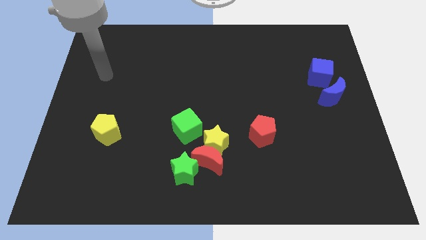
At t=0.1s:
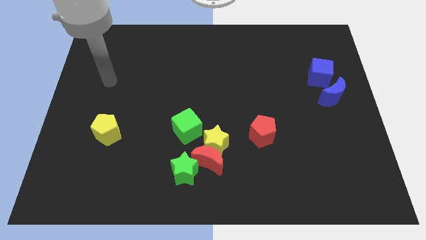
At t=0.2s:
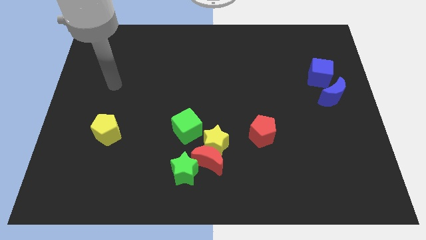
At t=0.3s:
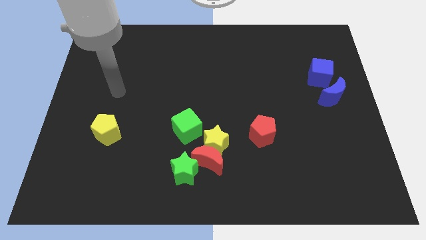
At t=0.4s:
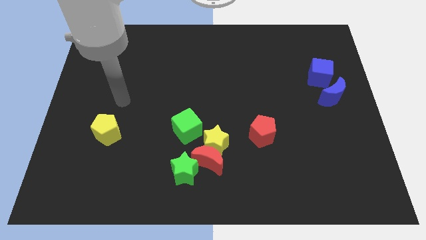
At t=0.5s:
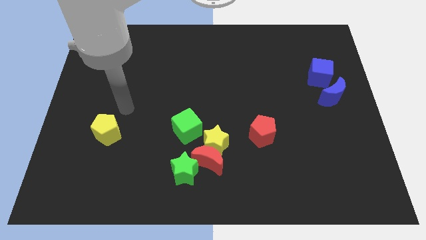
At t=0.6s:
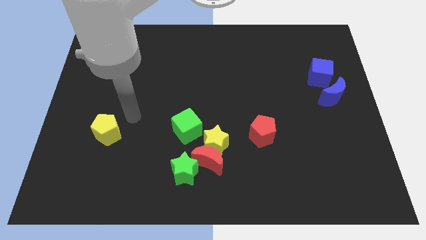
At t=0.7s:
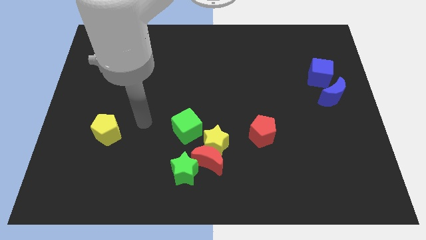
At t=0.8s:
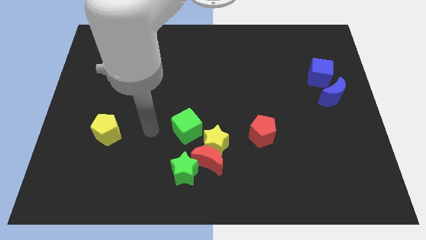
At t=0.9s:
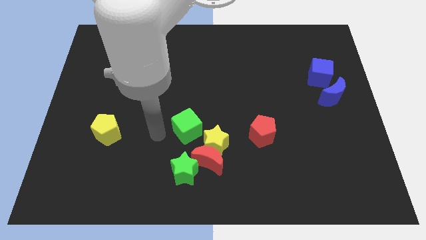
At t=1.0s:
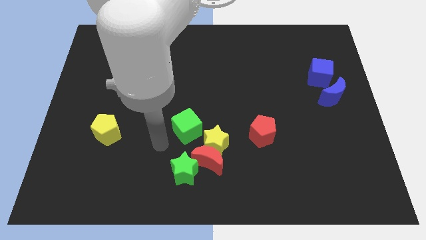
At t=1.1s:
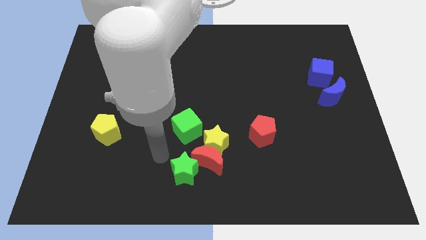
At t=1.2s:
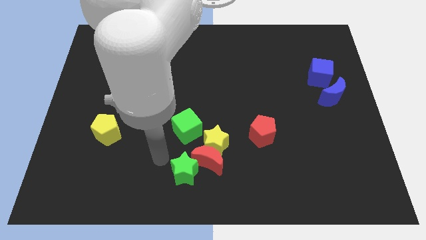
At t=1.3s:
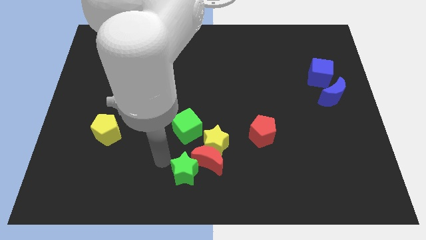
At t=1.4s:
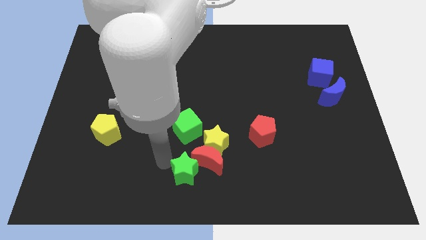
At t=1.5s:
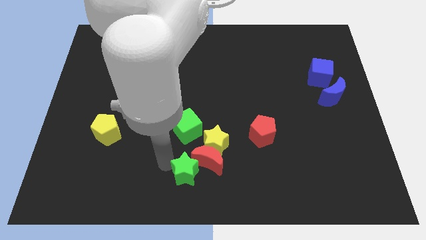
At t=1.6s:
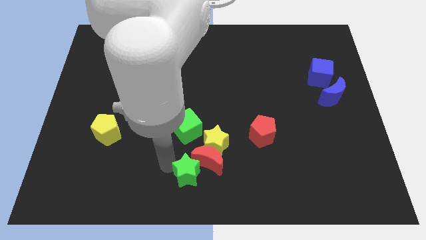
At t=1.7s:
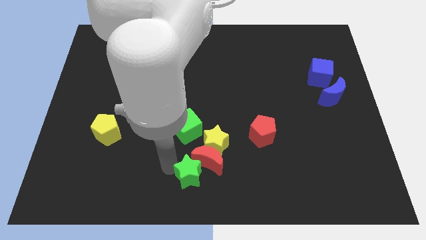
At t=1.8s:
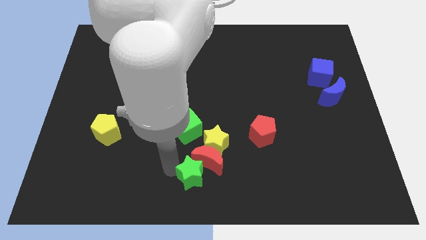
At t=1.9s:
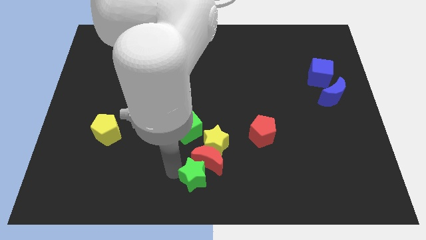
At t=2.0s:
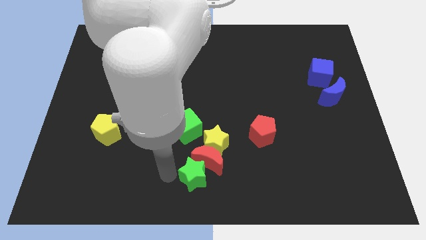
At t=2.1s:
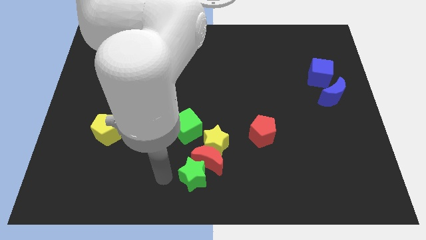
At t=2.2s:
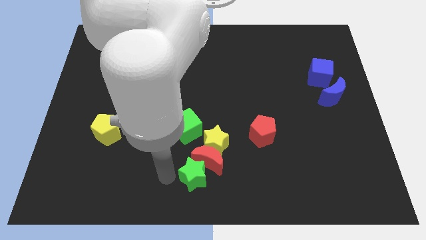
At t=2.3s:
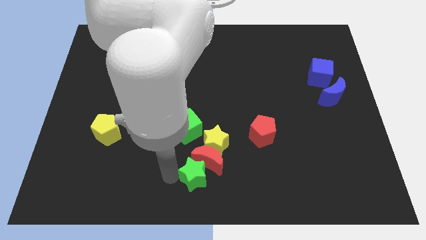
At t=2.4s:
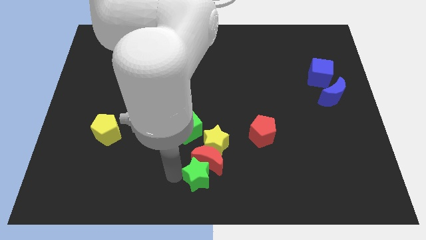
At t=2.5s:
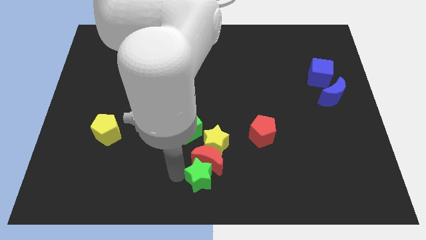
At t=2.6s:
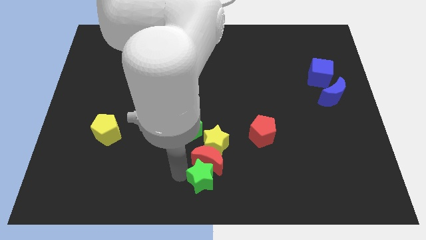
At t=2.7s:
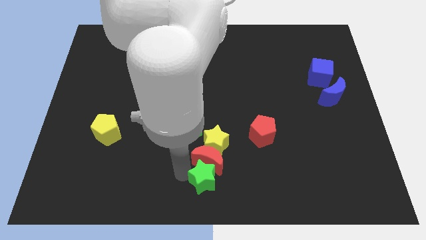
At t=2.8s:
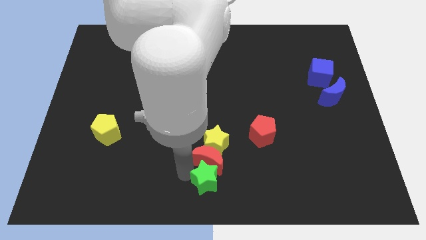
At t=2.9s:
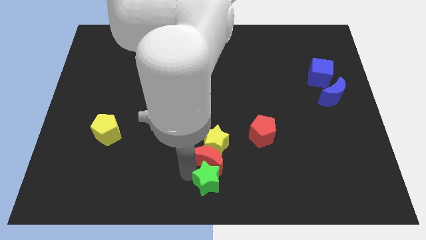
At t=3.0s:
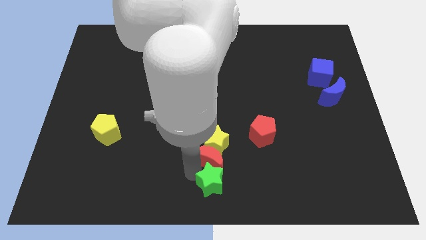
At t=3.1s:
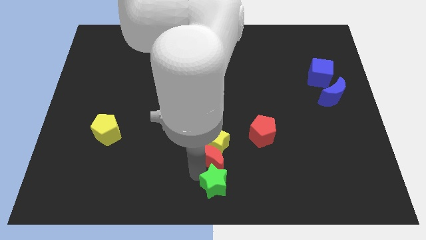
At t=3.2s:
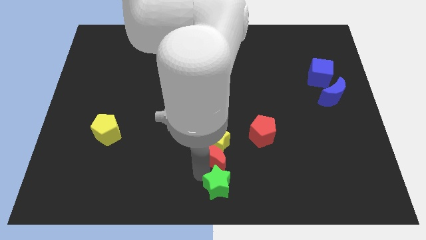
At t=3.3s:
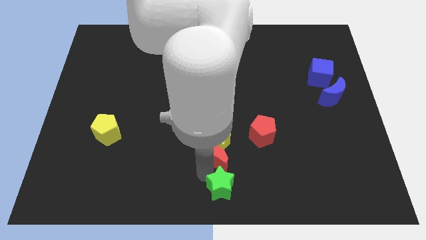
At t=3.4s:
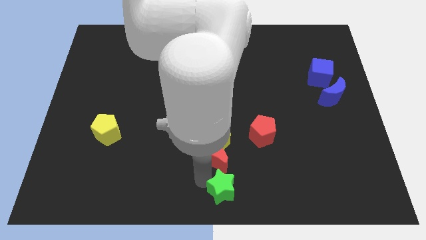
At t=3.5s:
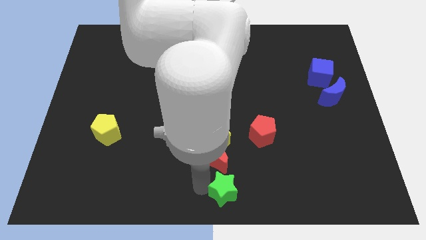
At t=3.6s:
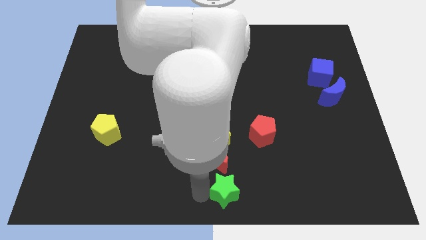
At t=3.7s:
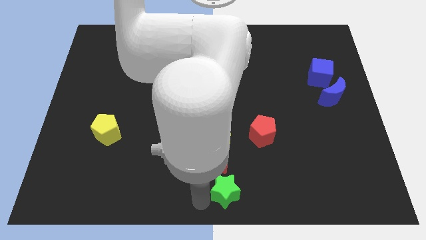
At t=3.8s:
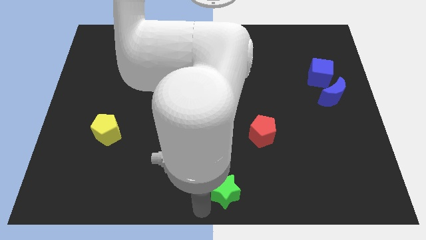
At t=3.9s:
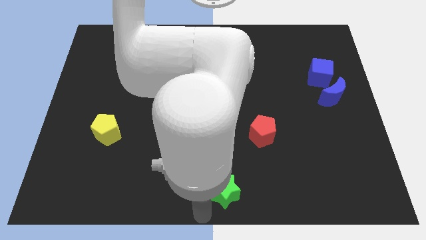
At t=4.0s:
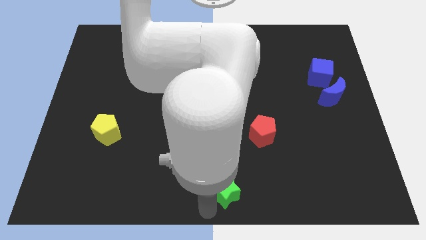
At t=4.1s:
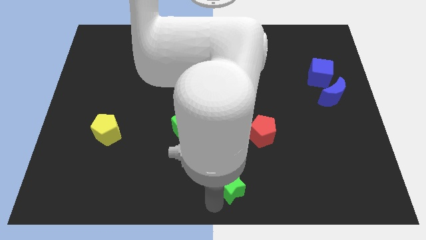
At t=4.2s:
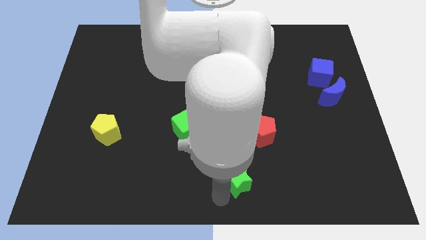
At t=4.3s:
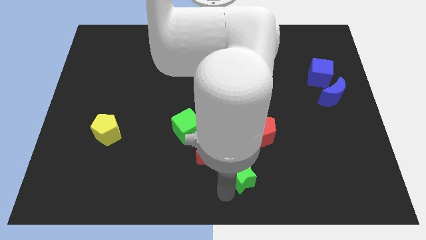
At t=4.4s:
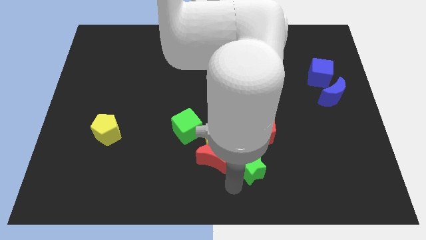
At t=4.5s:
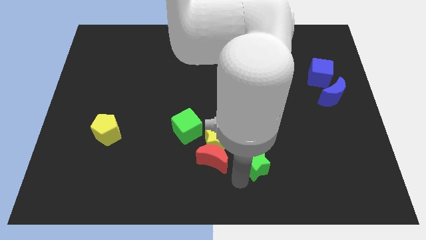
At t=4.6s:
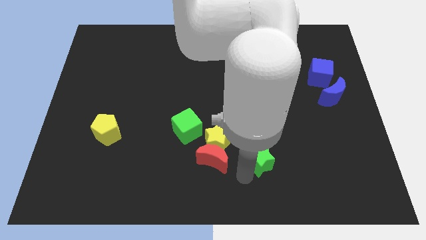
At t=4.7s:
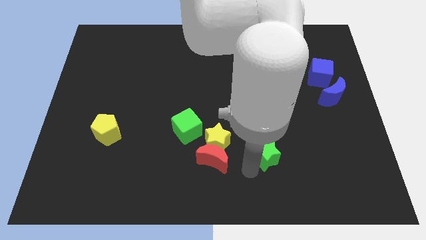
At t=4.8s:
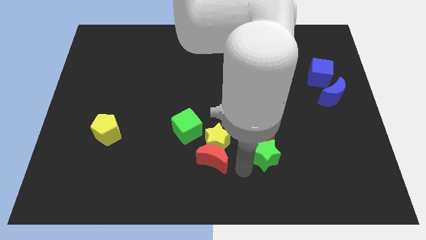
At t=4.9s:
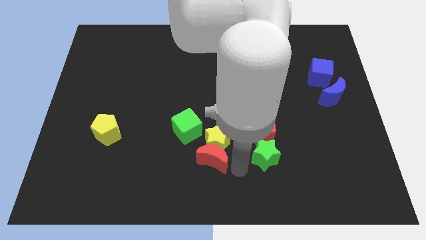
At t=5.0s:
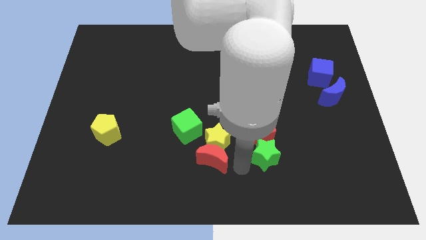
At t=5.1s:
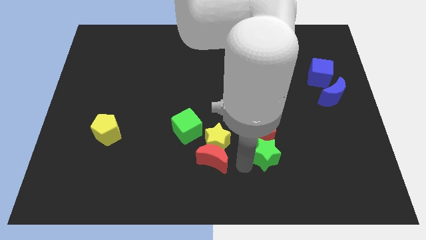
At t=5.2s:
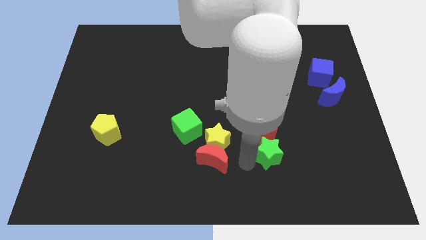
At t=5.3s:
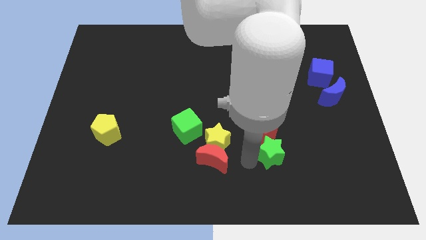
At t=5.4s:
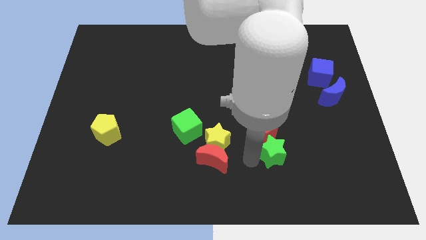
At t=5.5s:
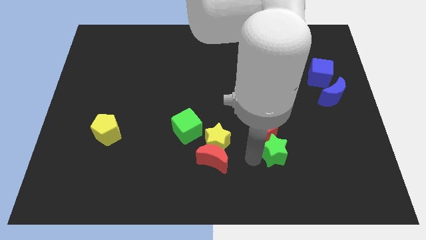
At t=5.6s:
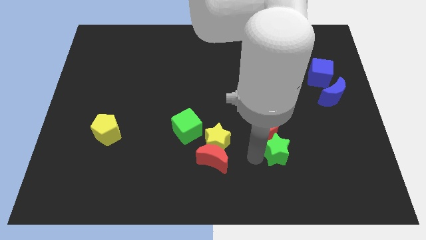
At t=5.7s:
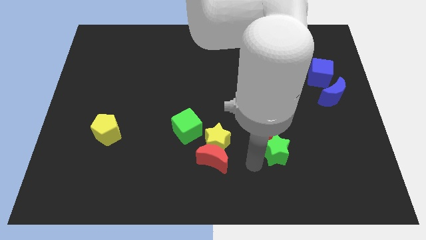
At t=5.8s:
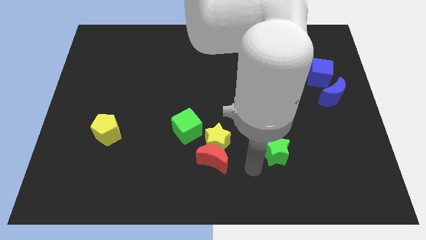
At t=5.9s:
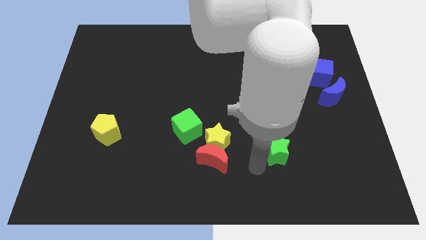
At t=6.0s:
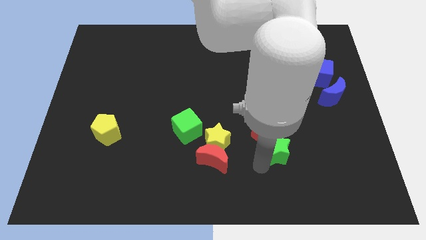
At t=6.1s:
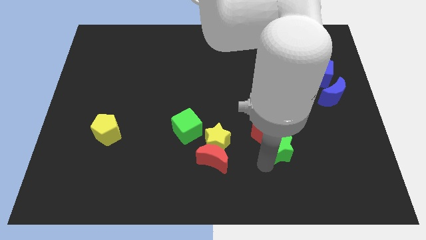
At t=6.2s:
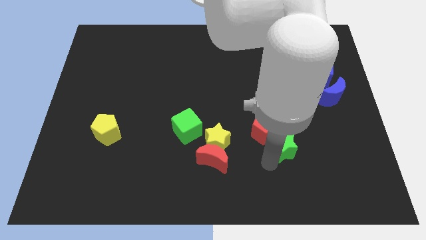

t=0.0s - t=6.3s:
put the green star to the right side of the red pentagon

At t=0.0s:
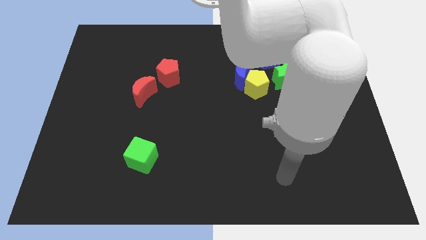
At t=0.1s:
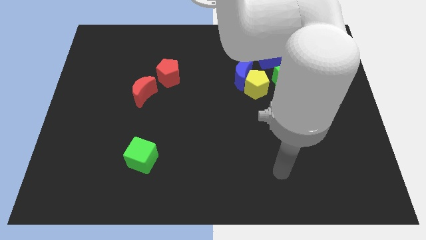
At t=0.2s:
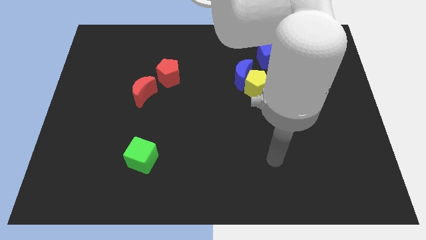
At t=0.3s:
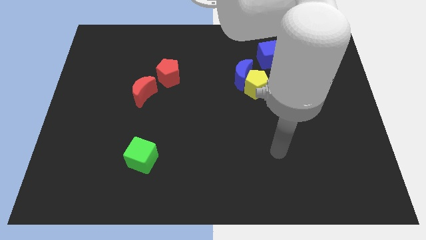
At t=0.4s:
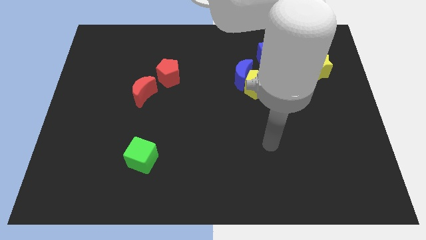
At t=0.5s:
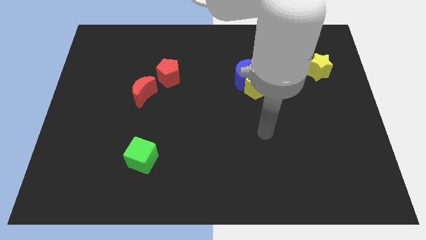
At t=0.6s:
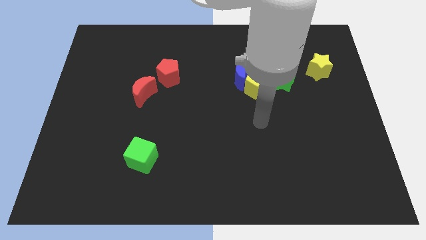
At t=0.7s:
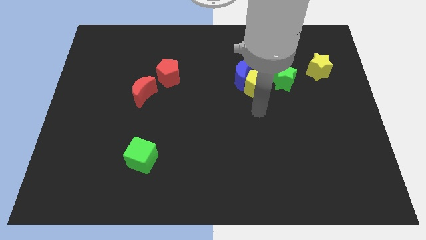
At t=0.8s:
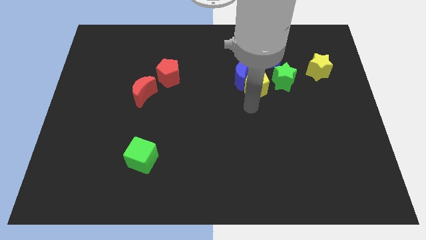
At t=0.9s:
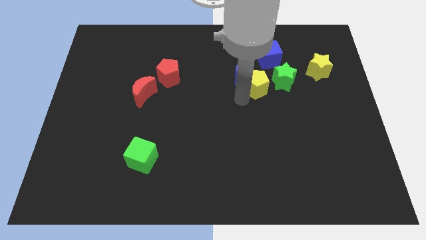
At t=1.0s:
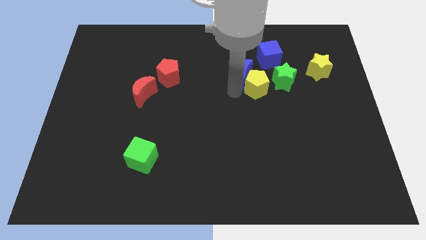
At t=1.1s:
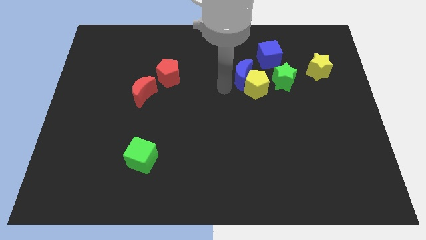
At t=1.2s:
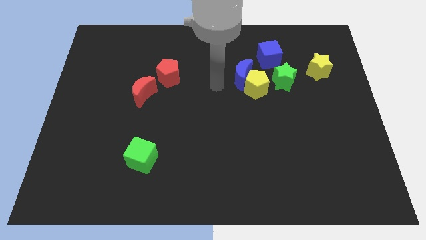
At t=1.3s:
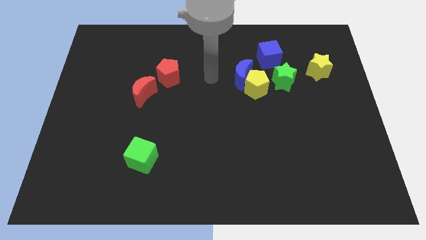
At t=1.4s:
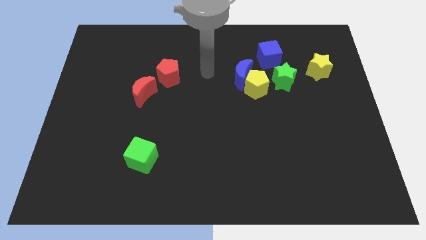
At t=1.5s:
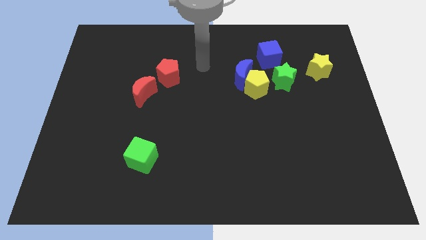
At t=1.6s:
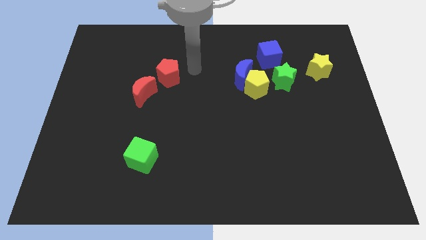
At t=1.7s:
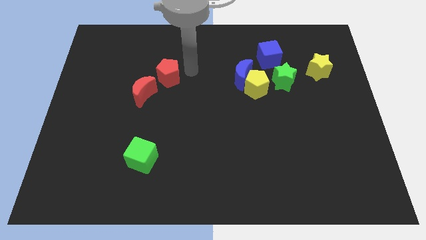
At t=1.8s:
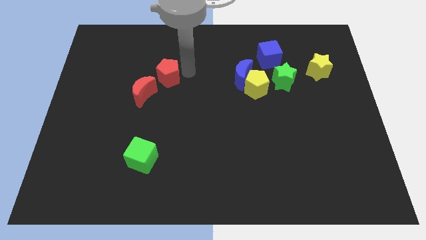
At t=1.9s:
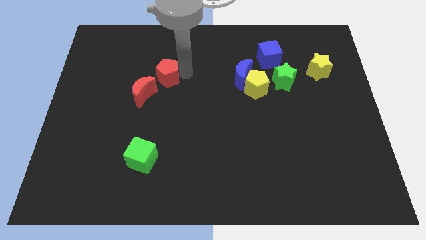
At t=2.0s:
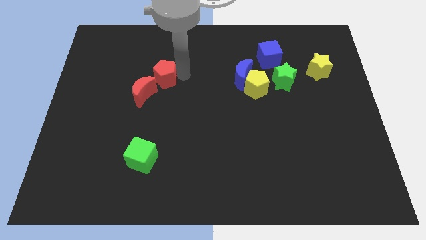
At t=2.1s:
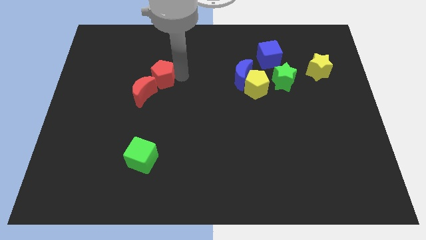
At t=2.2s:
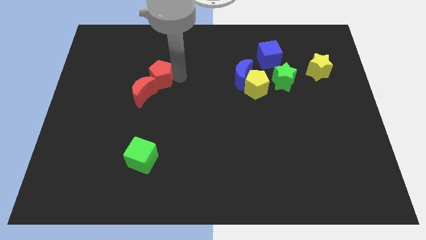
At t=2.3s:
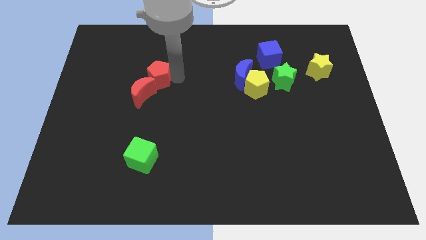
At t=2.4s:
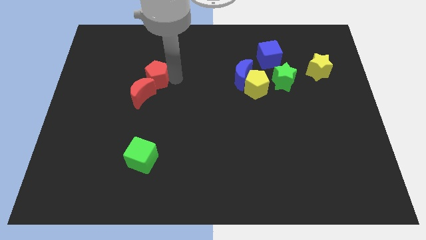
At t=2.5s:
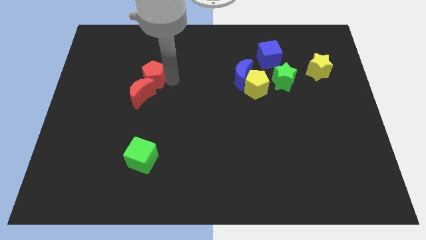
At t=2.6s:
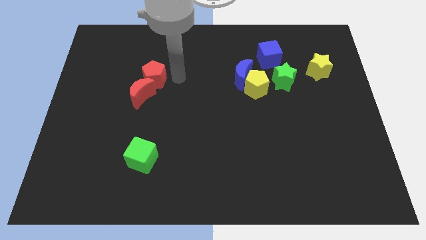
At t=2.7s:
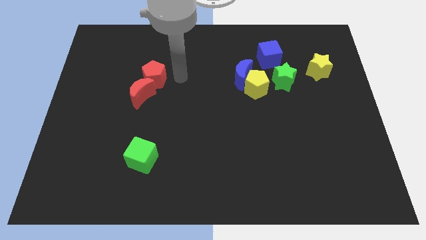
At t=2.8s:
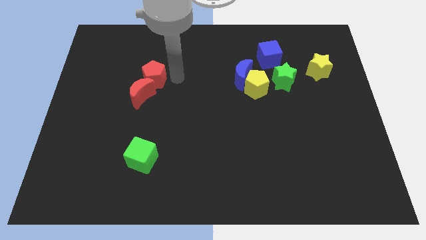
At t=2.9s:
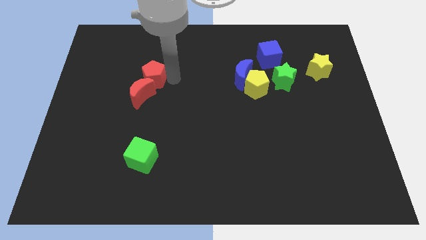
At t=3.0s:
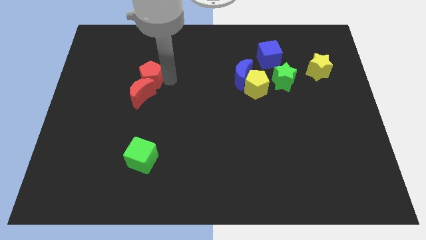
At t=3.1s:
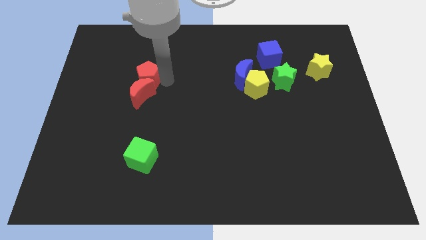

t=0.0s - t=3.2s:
push the red pentagon to the top left of the red moon
